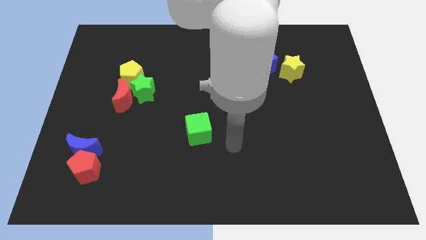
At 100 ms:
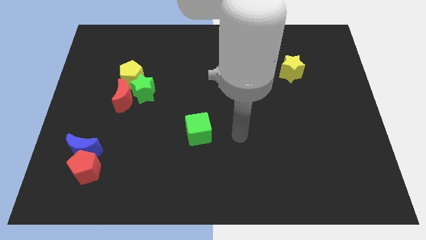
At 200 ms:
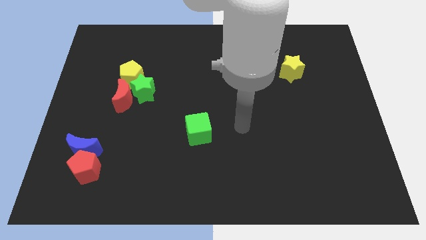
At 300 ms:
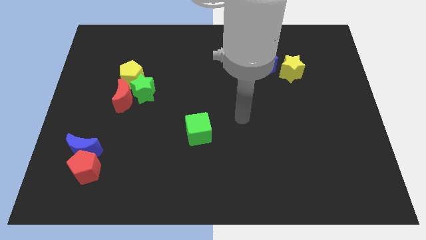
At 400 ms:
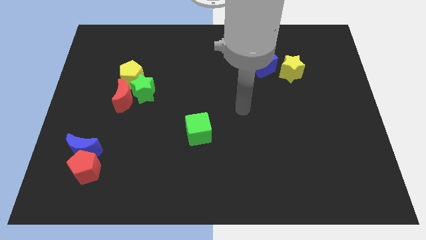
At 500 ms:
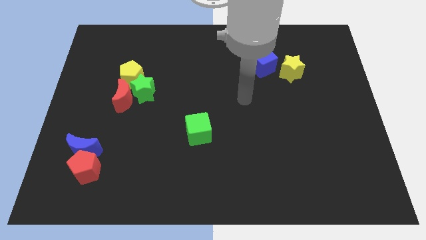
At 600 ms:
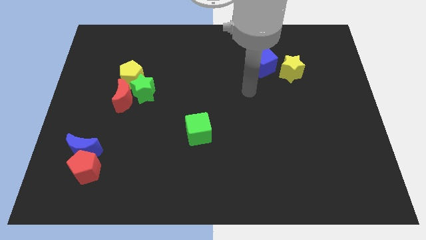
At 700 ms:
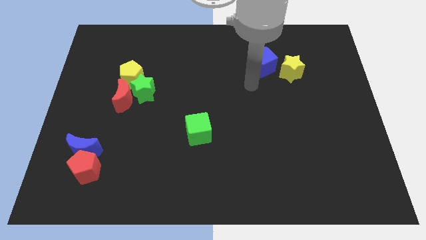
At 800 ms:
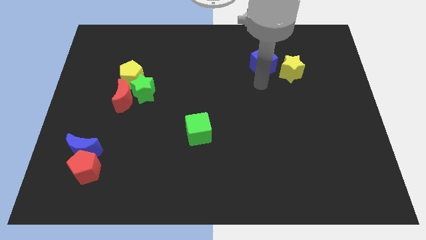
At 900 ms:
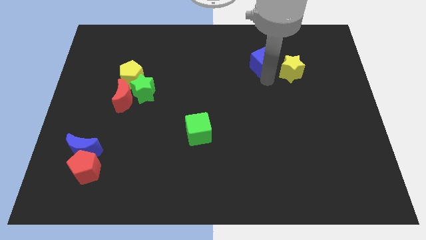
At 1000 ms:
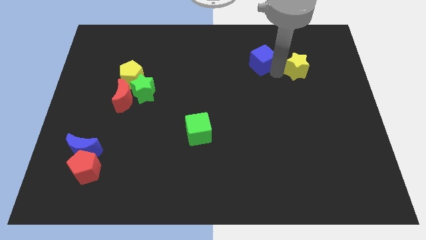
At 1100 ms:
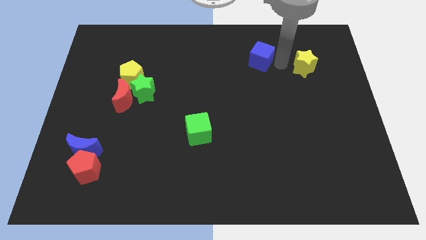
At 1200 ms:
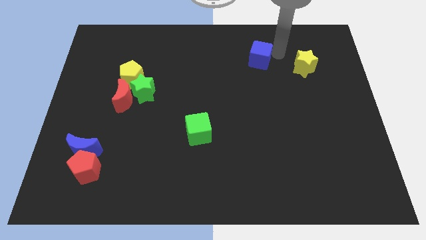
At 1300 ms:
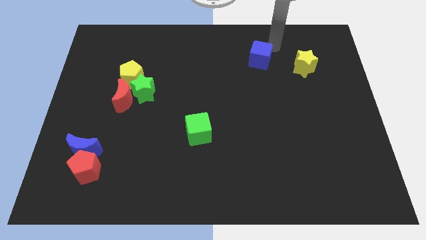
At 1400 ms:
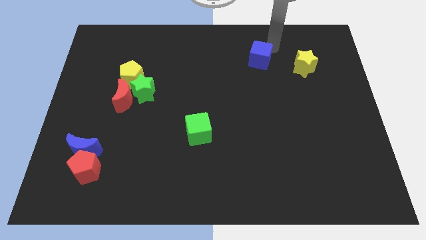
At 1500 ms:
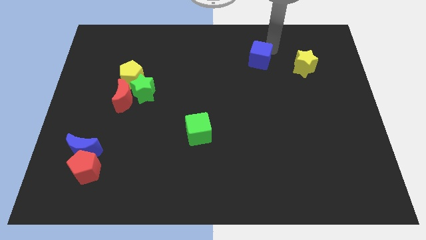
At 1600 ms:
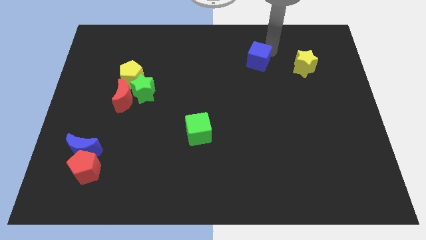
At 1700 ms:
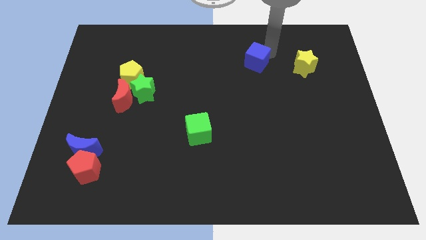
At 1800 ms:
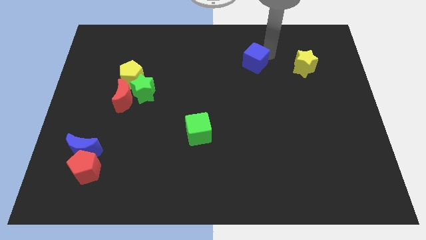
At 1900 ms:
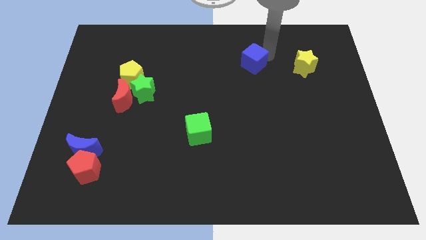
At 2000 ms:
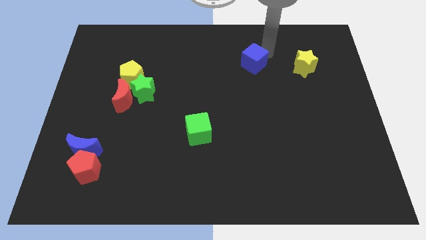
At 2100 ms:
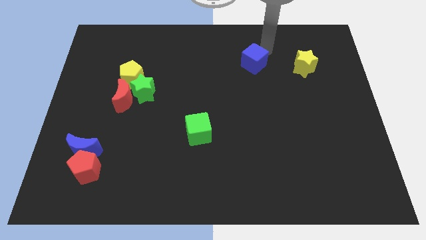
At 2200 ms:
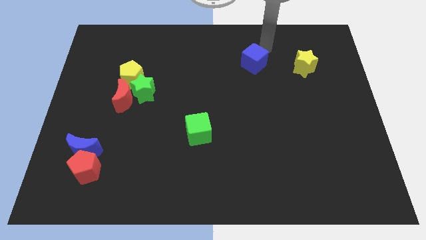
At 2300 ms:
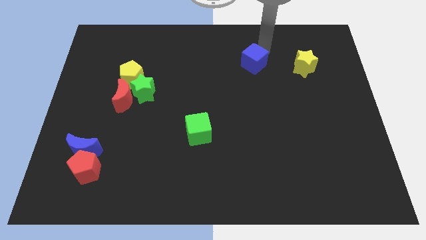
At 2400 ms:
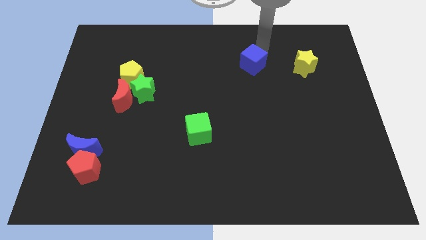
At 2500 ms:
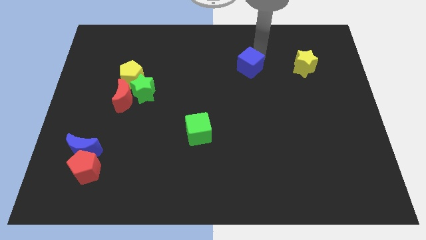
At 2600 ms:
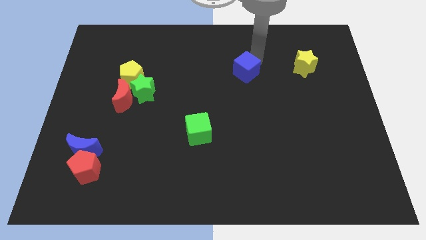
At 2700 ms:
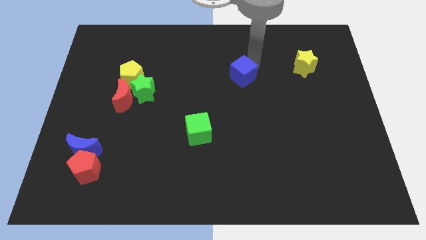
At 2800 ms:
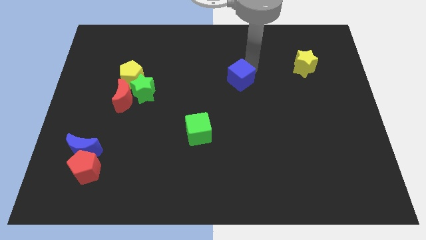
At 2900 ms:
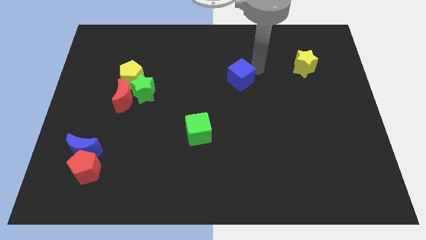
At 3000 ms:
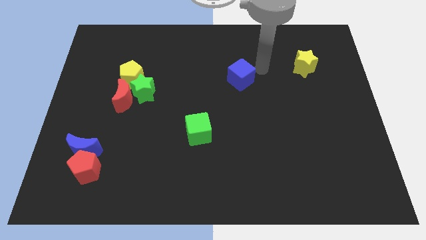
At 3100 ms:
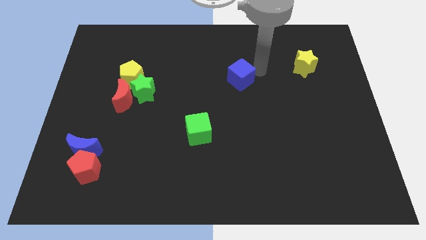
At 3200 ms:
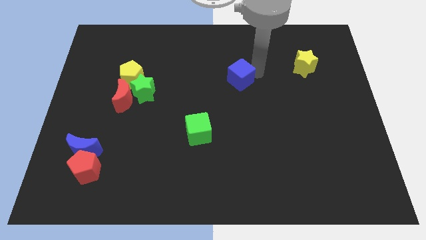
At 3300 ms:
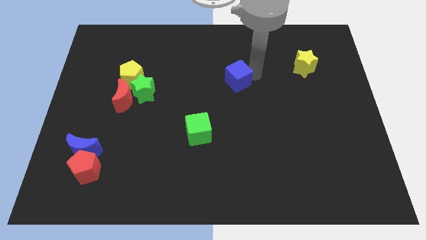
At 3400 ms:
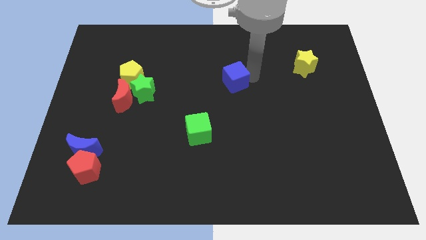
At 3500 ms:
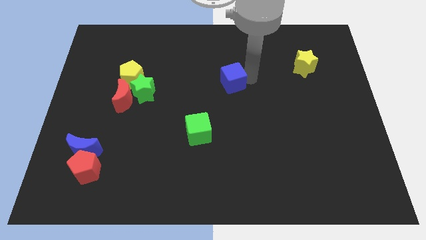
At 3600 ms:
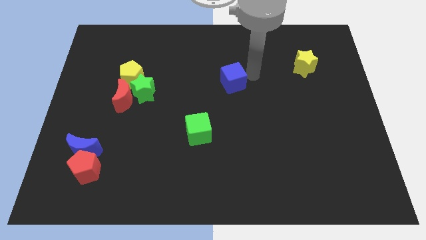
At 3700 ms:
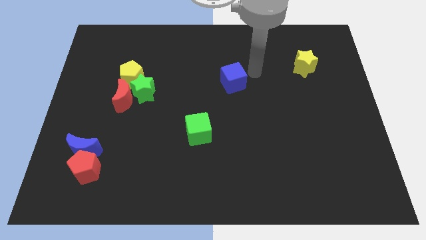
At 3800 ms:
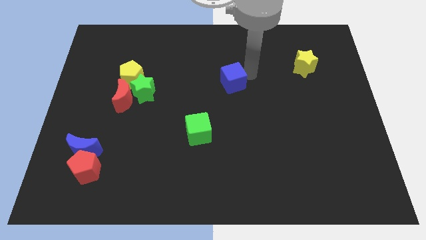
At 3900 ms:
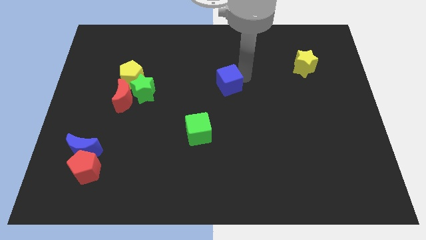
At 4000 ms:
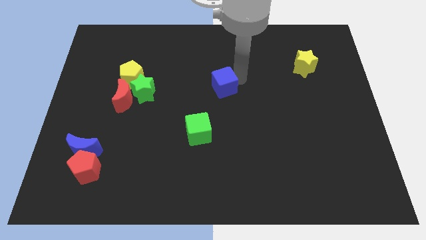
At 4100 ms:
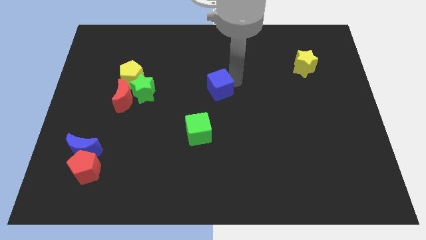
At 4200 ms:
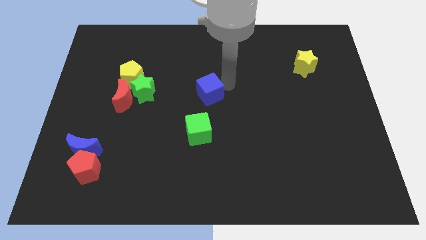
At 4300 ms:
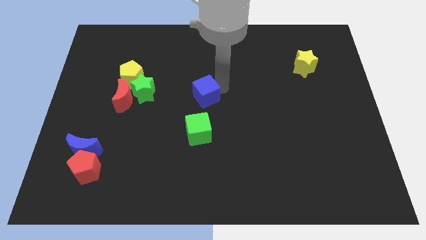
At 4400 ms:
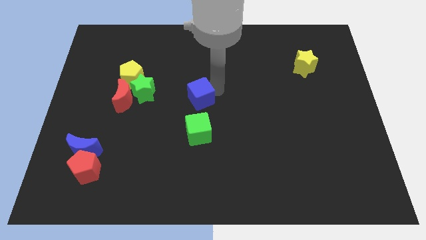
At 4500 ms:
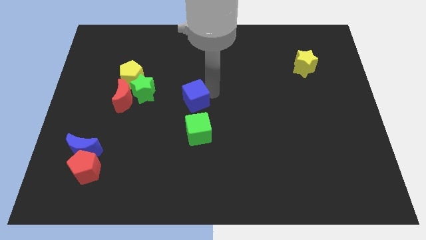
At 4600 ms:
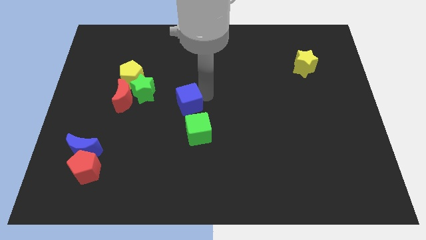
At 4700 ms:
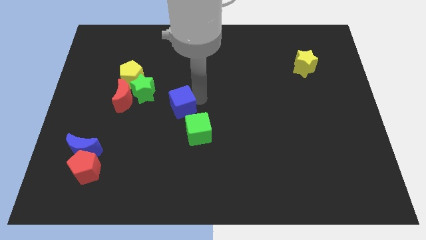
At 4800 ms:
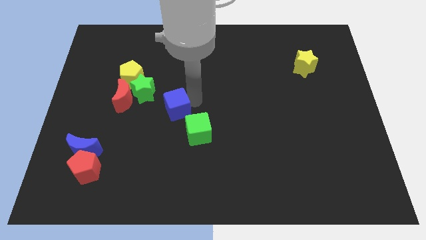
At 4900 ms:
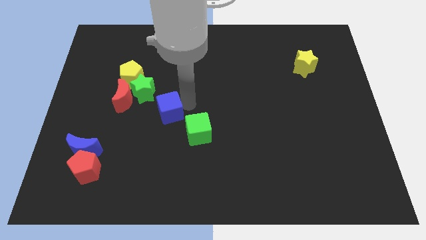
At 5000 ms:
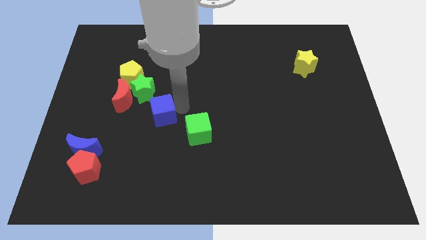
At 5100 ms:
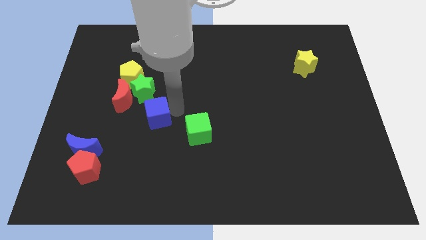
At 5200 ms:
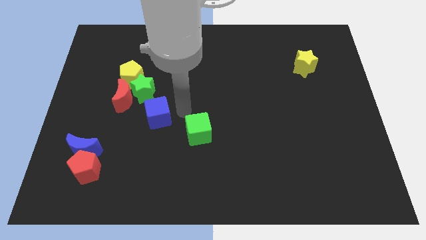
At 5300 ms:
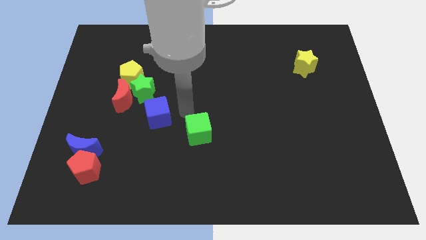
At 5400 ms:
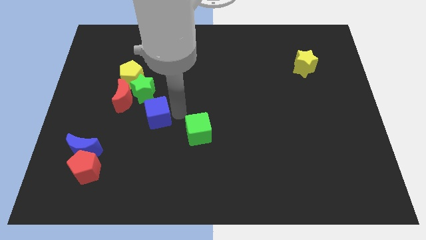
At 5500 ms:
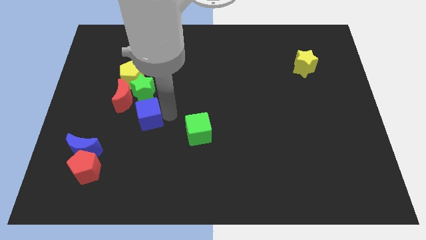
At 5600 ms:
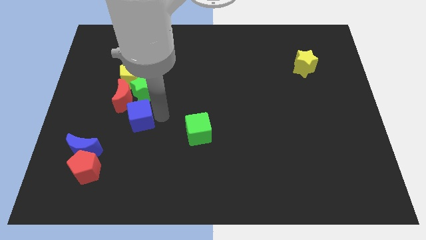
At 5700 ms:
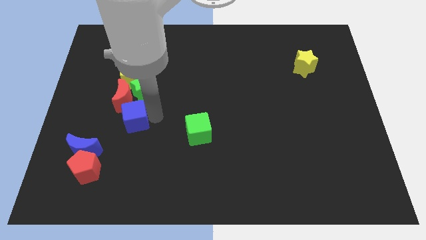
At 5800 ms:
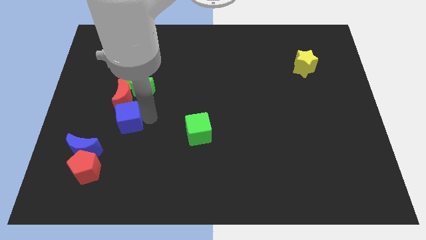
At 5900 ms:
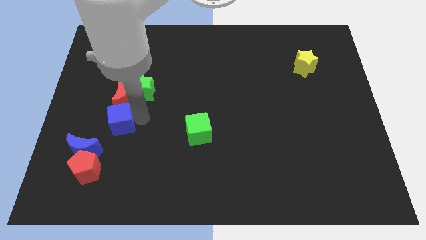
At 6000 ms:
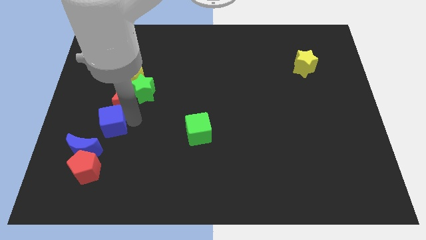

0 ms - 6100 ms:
move the blue cube above the red pentagon

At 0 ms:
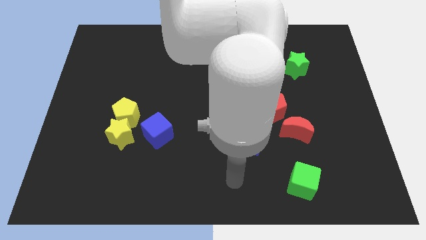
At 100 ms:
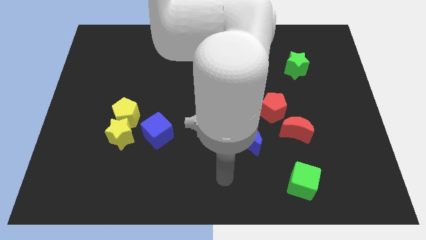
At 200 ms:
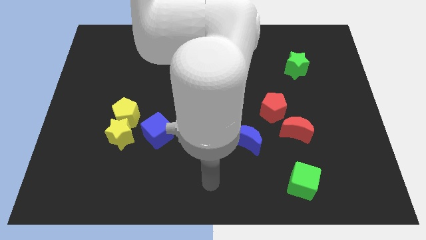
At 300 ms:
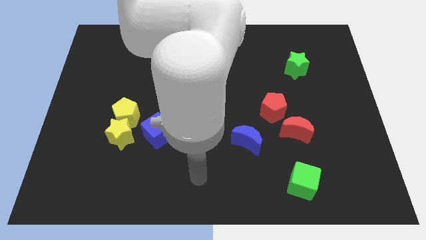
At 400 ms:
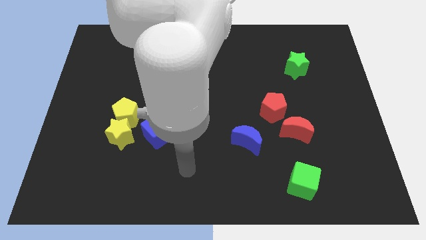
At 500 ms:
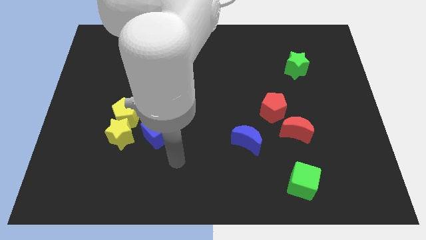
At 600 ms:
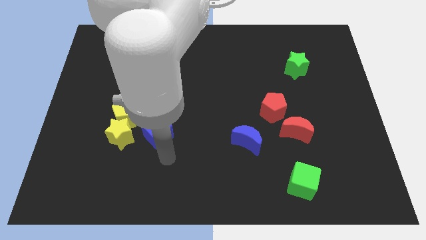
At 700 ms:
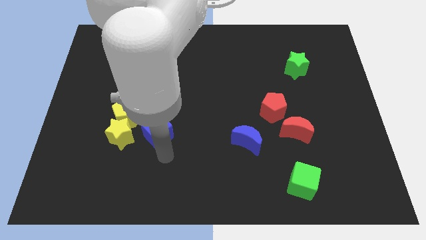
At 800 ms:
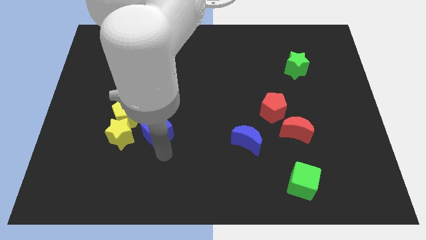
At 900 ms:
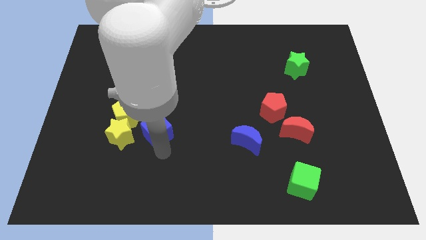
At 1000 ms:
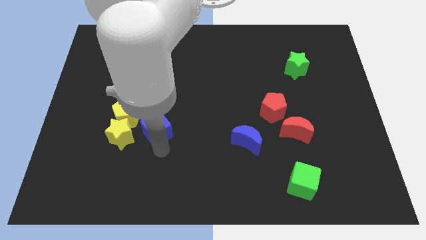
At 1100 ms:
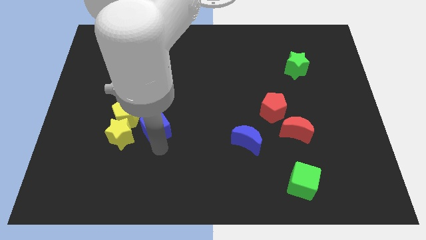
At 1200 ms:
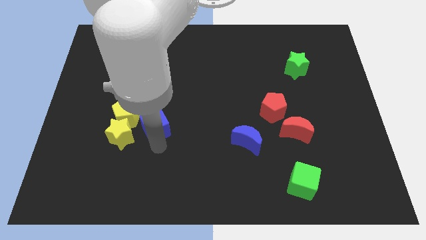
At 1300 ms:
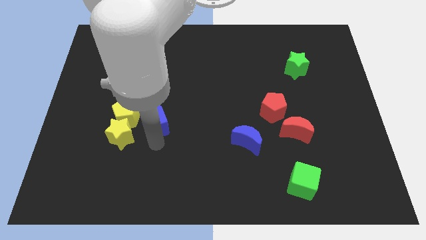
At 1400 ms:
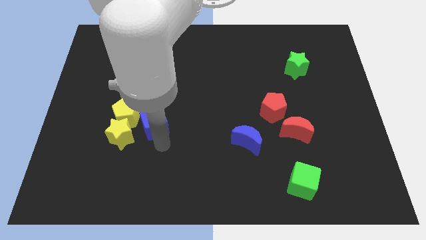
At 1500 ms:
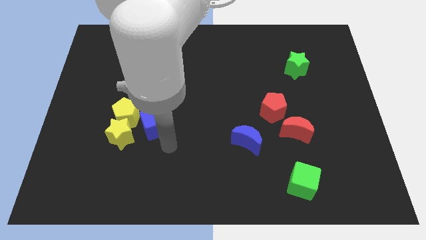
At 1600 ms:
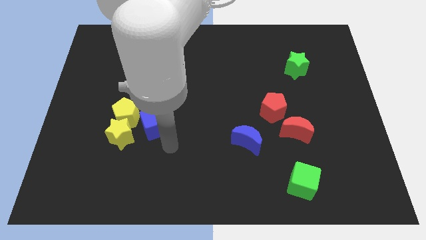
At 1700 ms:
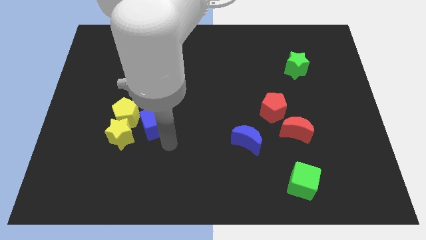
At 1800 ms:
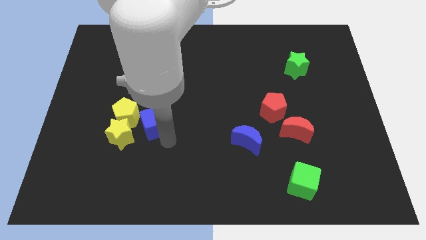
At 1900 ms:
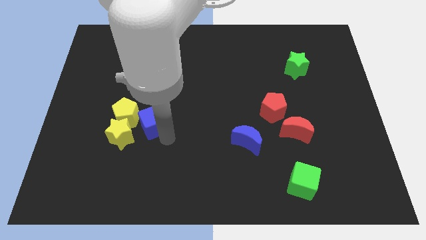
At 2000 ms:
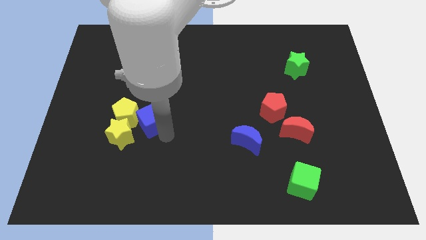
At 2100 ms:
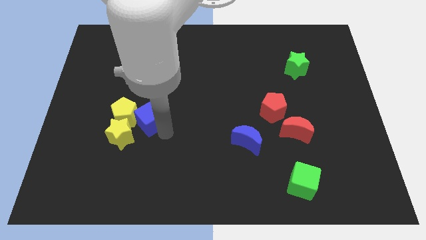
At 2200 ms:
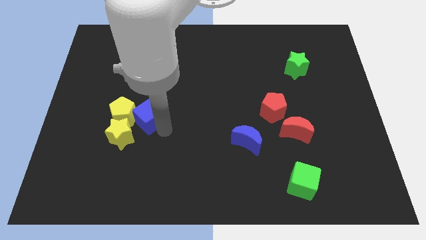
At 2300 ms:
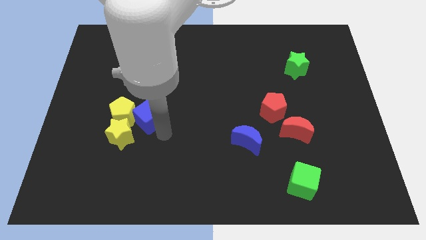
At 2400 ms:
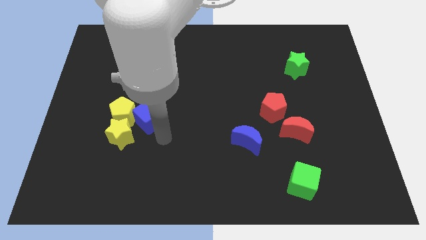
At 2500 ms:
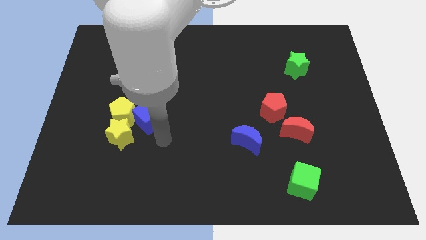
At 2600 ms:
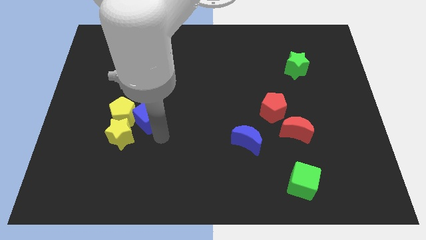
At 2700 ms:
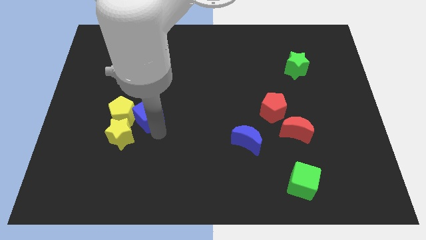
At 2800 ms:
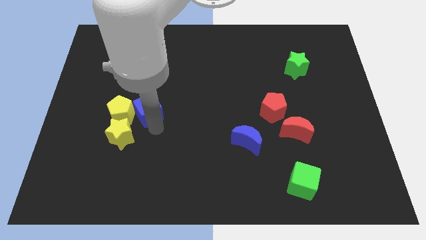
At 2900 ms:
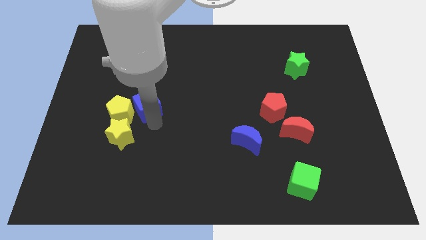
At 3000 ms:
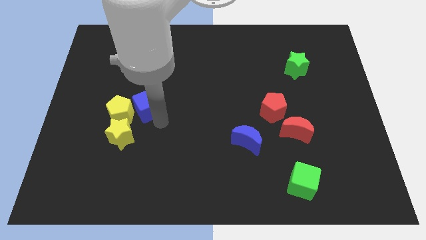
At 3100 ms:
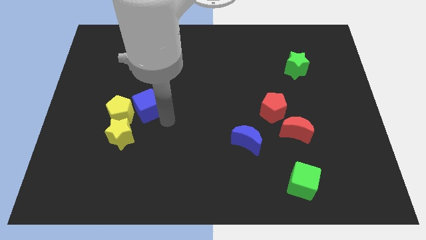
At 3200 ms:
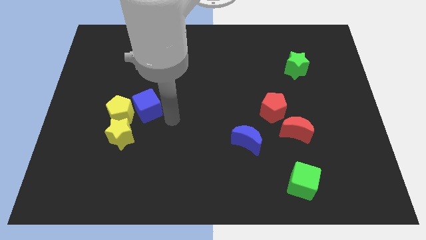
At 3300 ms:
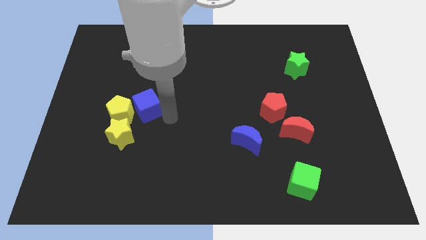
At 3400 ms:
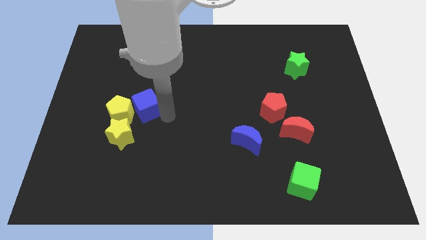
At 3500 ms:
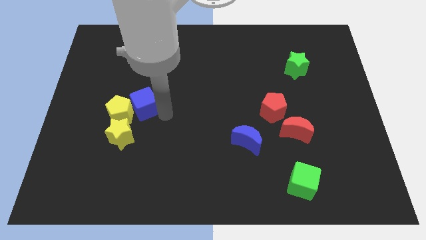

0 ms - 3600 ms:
slide the blue cube above the yellow star
